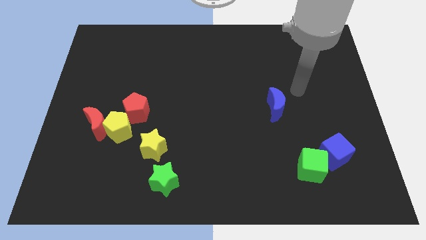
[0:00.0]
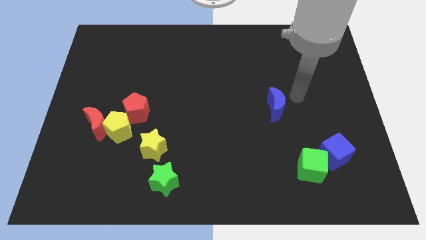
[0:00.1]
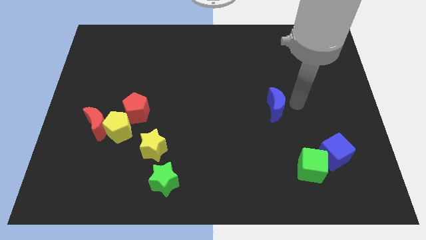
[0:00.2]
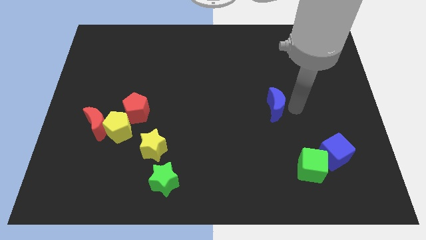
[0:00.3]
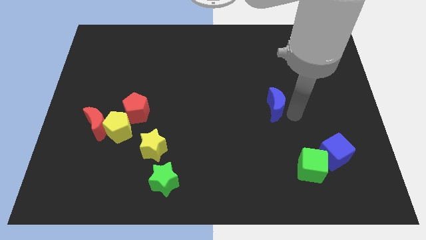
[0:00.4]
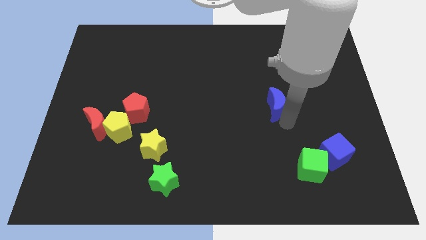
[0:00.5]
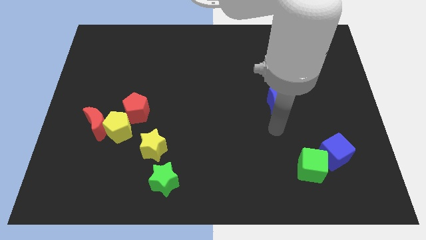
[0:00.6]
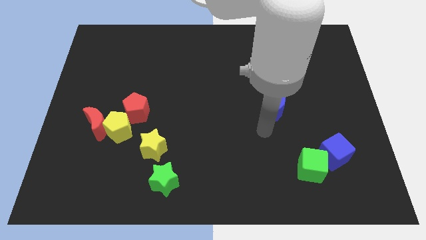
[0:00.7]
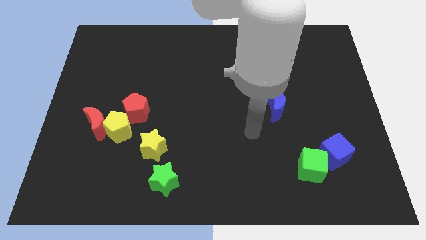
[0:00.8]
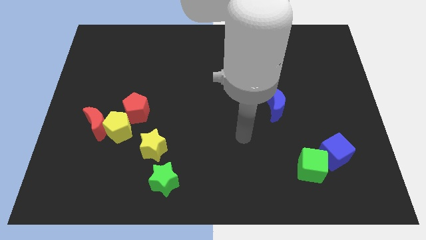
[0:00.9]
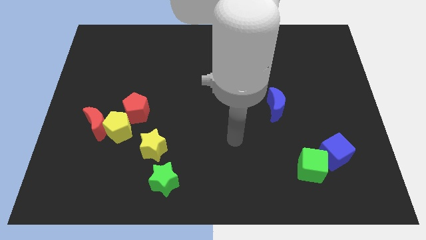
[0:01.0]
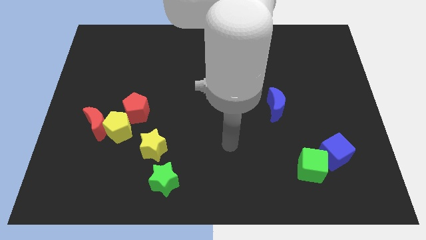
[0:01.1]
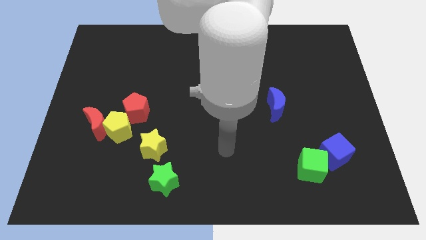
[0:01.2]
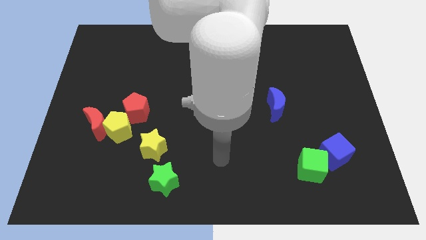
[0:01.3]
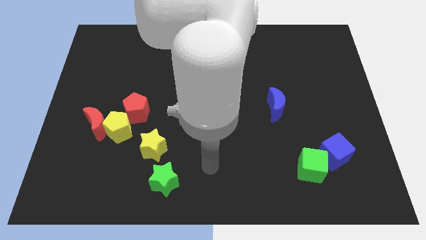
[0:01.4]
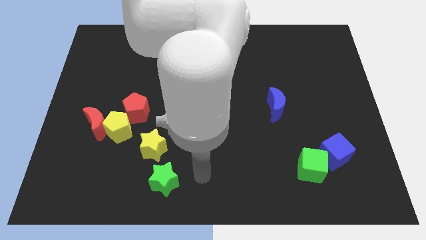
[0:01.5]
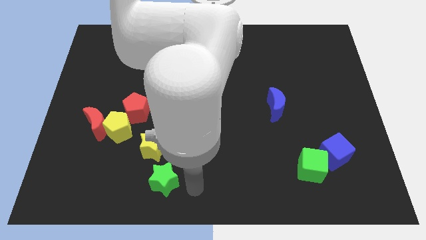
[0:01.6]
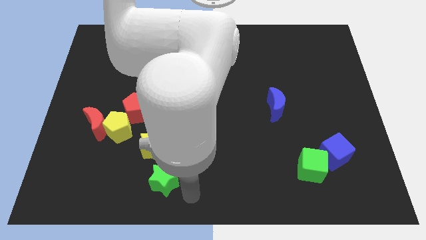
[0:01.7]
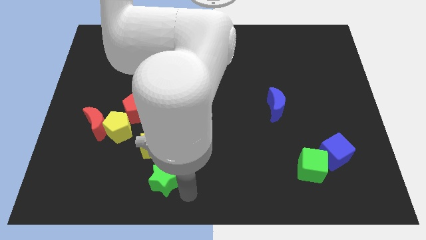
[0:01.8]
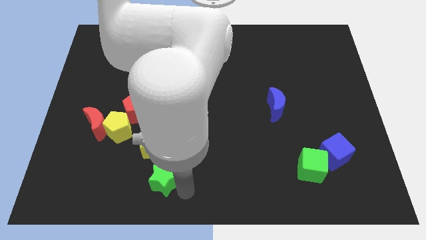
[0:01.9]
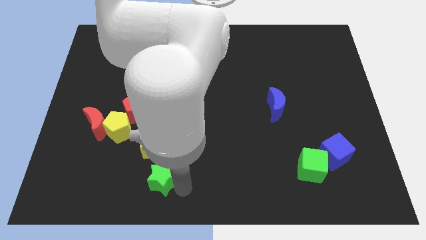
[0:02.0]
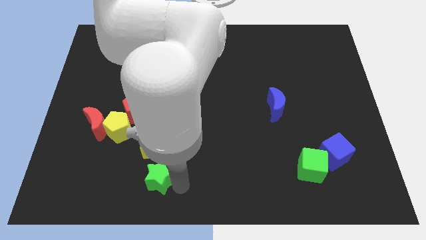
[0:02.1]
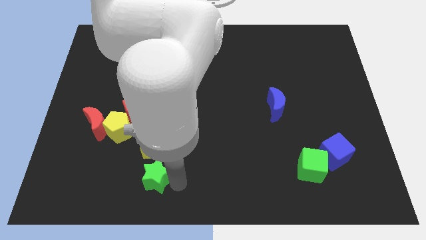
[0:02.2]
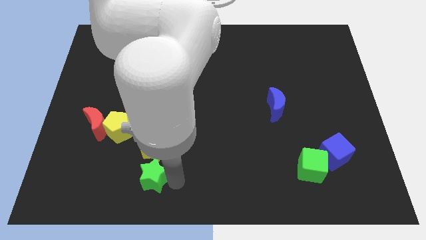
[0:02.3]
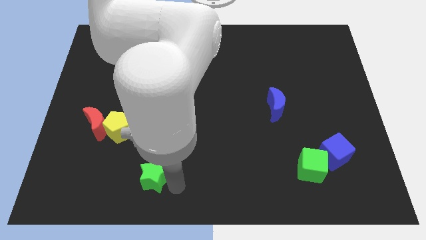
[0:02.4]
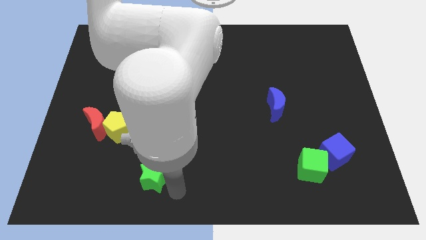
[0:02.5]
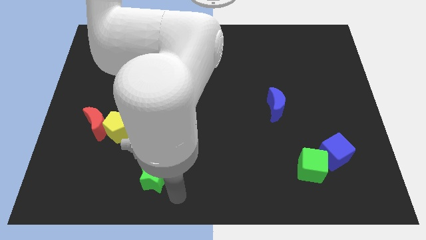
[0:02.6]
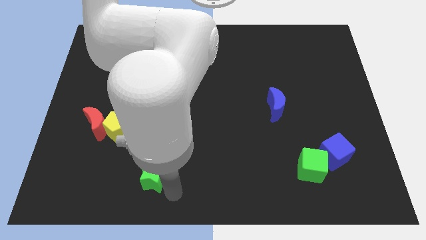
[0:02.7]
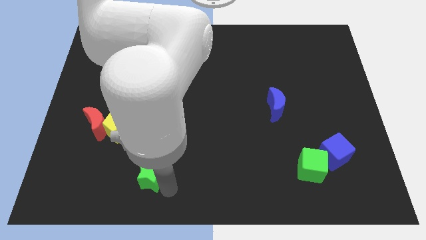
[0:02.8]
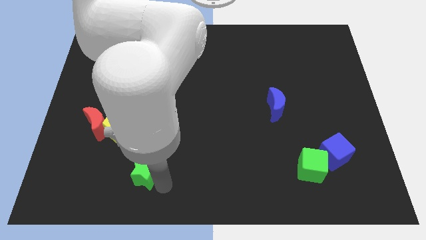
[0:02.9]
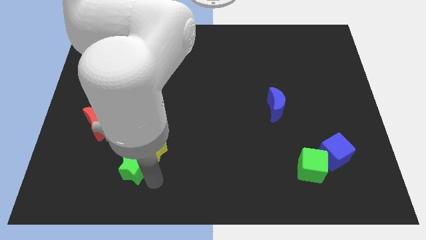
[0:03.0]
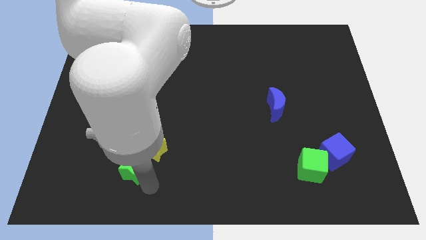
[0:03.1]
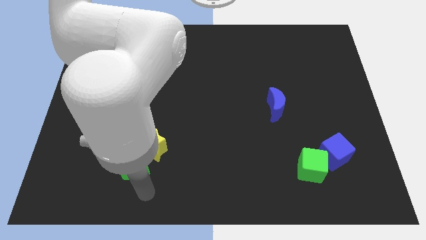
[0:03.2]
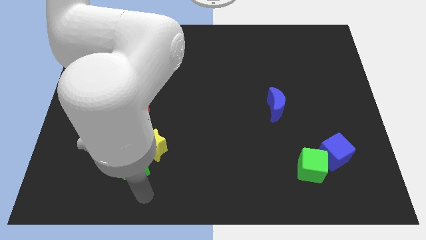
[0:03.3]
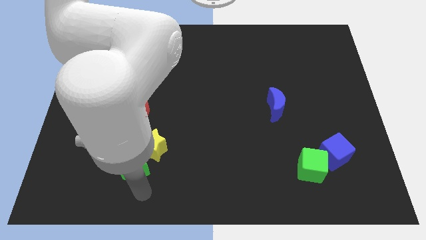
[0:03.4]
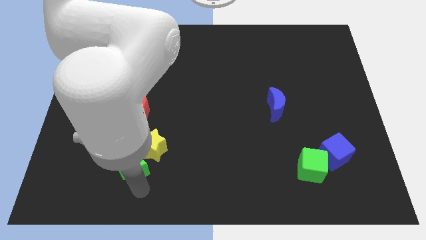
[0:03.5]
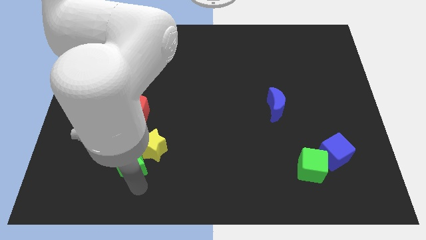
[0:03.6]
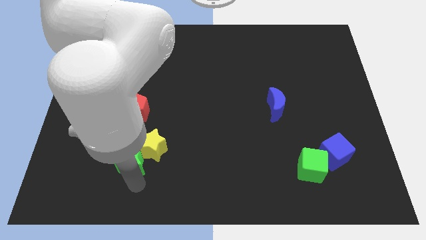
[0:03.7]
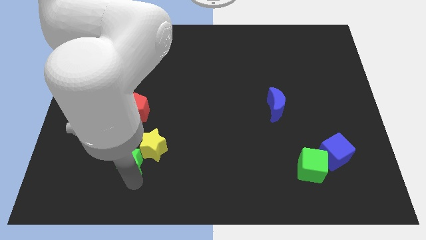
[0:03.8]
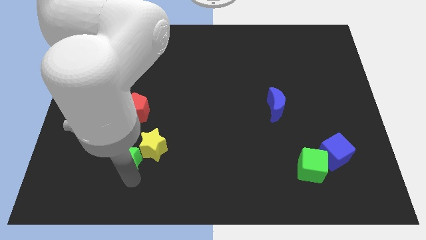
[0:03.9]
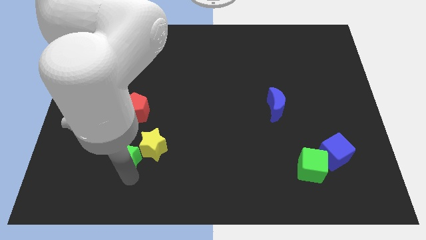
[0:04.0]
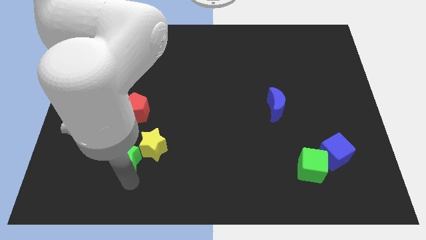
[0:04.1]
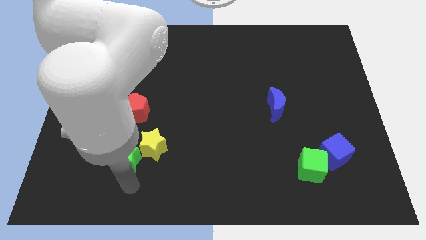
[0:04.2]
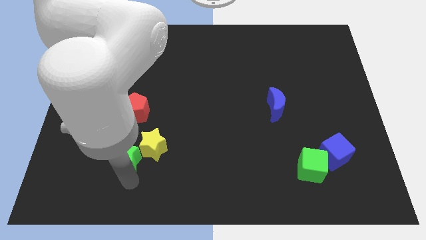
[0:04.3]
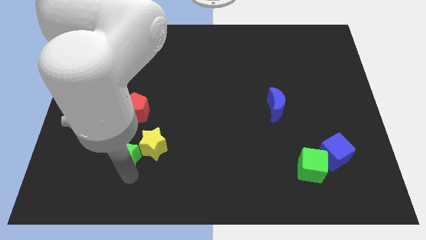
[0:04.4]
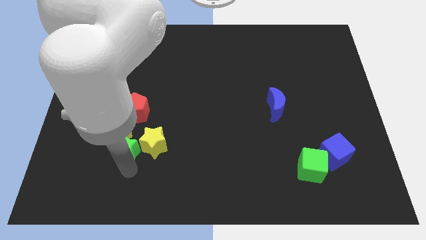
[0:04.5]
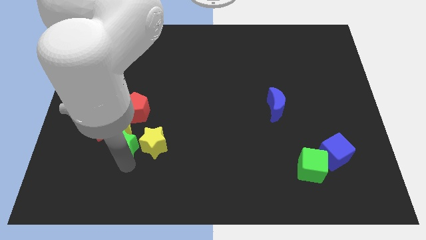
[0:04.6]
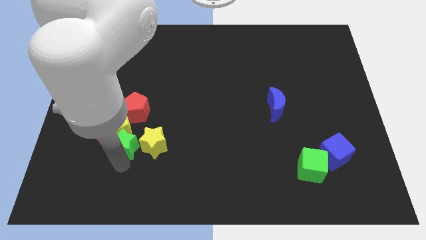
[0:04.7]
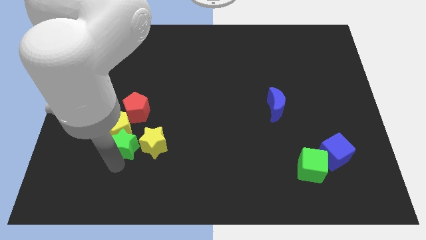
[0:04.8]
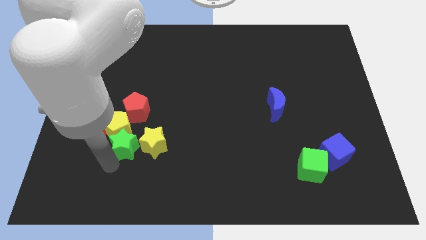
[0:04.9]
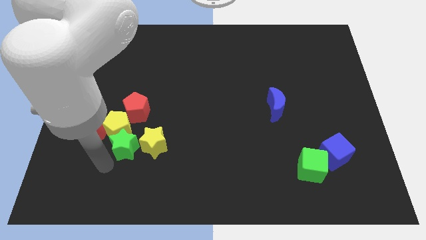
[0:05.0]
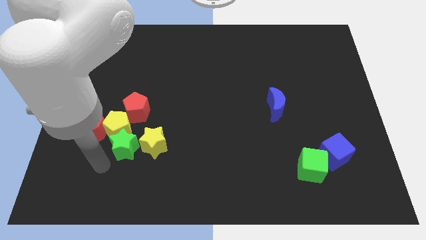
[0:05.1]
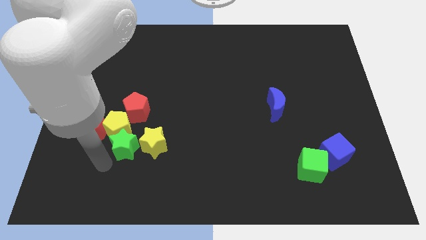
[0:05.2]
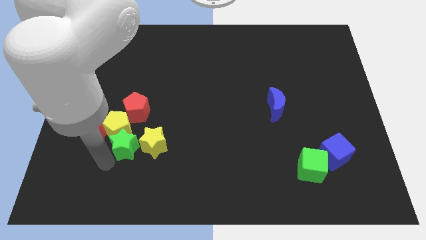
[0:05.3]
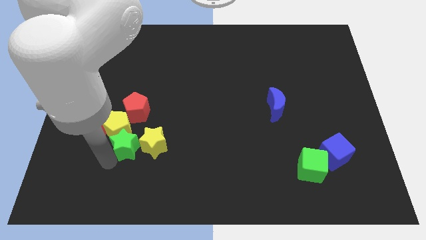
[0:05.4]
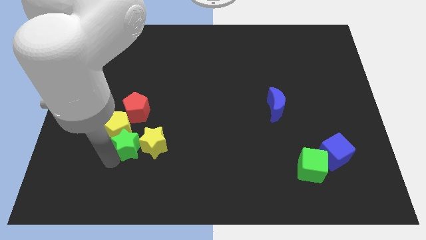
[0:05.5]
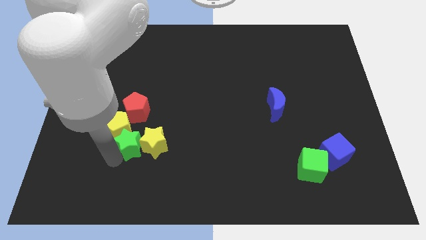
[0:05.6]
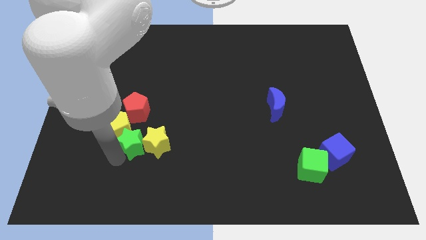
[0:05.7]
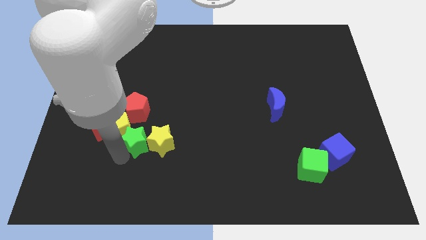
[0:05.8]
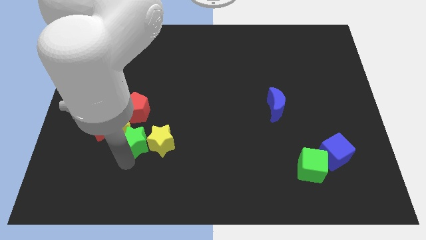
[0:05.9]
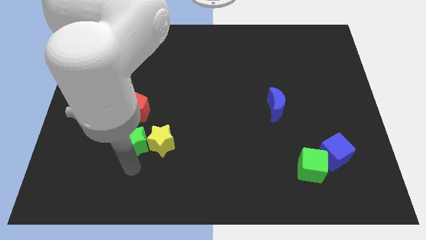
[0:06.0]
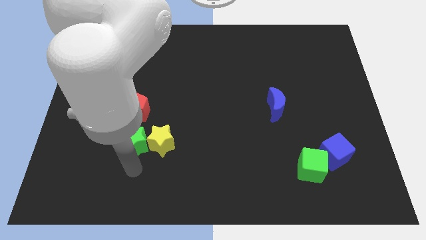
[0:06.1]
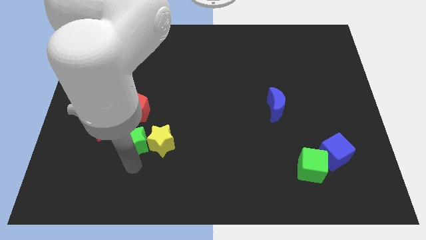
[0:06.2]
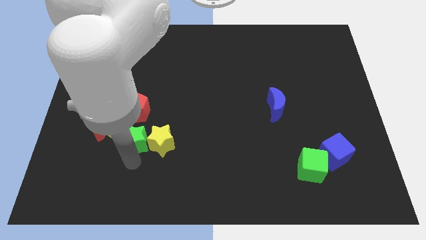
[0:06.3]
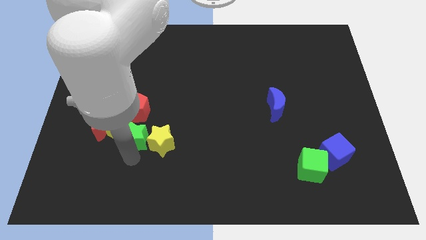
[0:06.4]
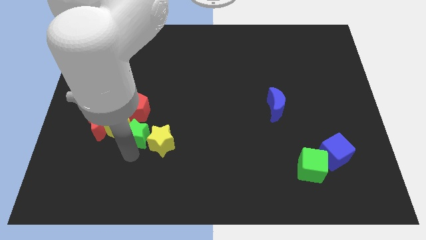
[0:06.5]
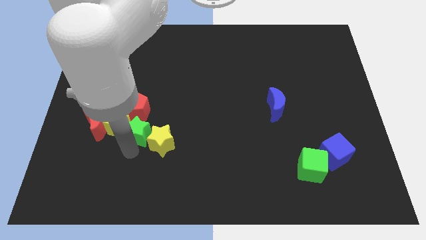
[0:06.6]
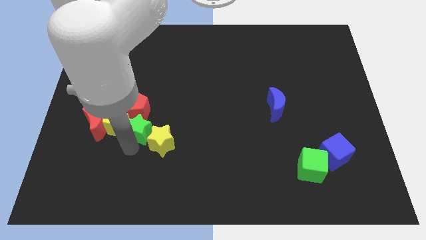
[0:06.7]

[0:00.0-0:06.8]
move the green star towards the red pentagon
